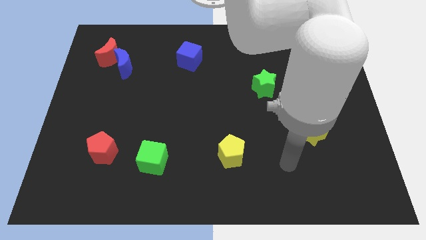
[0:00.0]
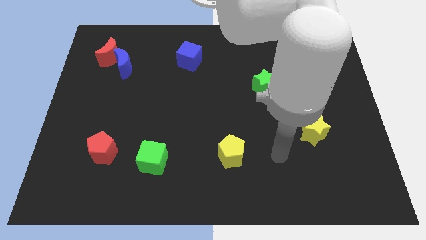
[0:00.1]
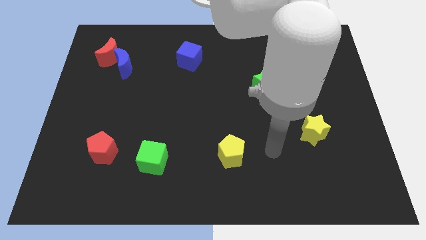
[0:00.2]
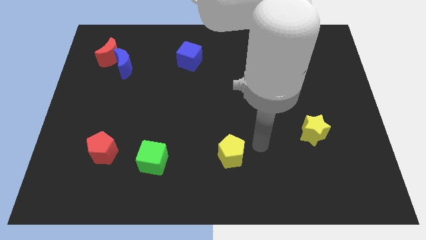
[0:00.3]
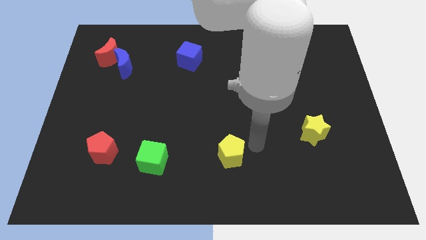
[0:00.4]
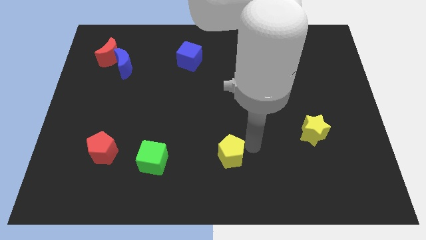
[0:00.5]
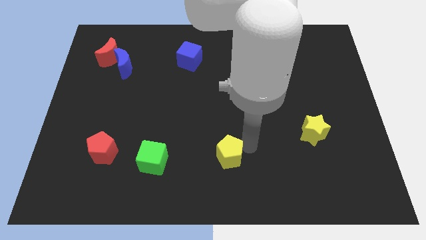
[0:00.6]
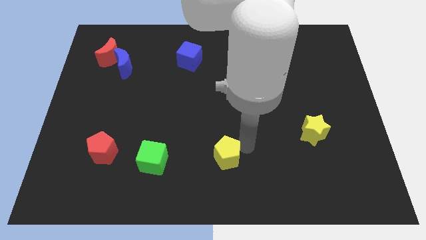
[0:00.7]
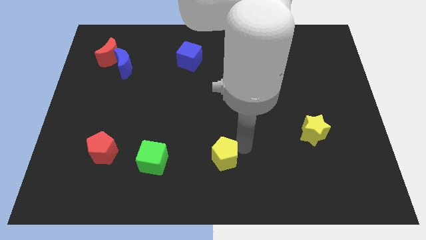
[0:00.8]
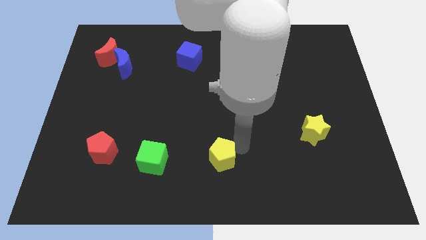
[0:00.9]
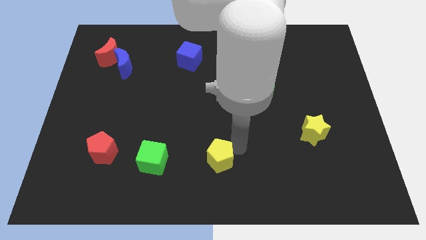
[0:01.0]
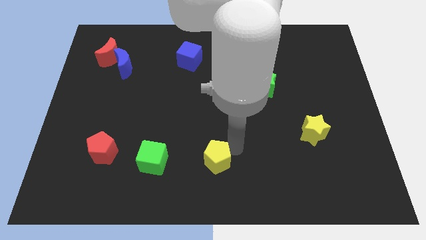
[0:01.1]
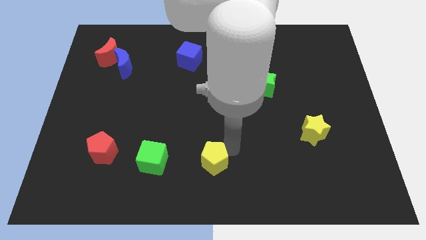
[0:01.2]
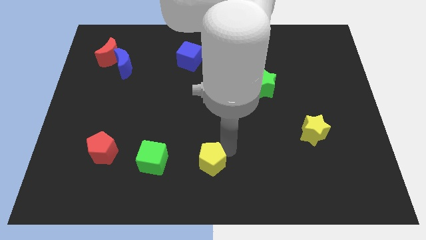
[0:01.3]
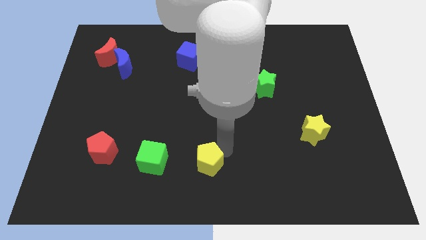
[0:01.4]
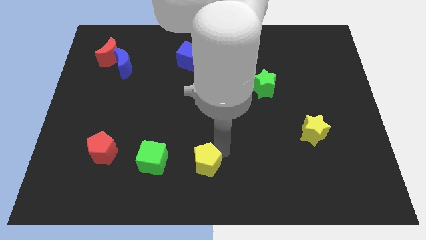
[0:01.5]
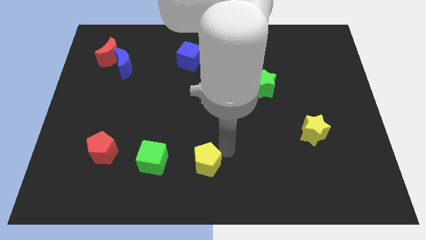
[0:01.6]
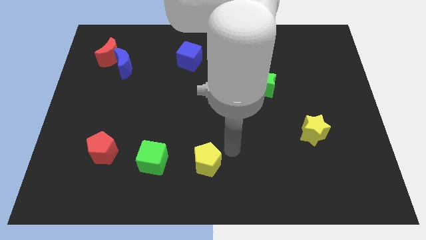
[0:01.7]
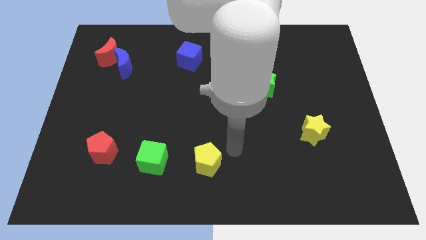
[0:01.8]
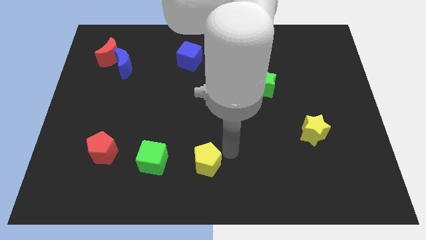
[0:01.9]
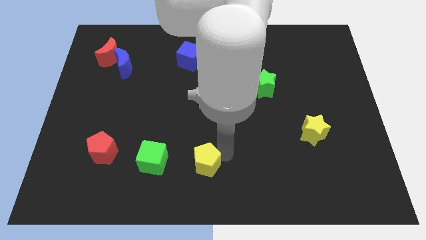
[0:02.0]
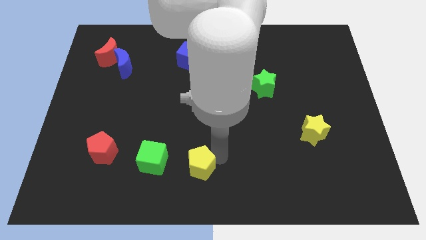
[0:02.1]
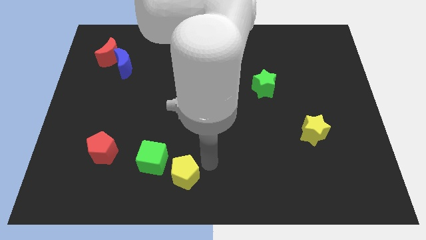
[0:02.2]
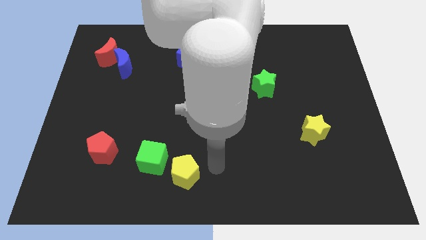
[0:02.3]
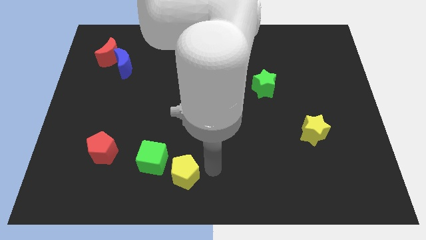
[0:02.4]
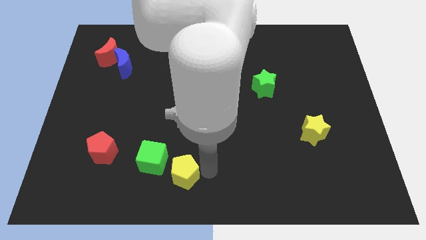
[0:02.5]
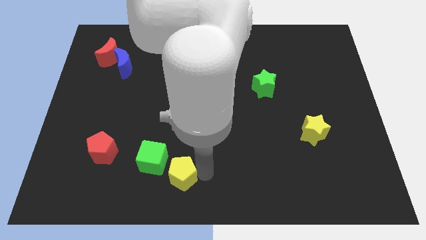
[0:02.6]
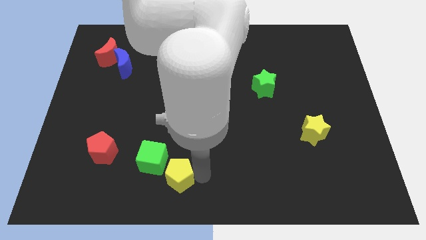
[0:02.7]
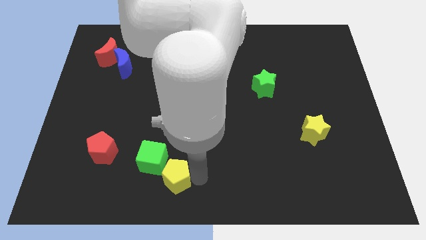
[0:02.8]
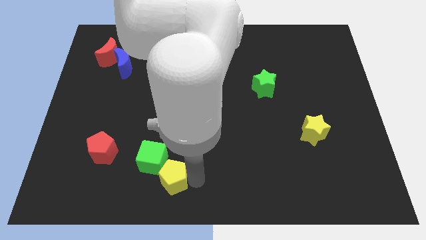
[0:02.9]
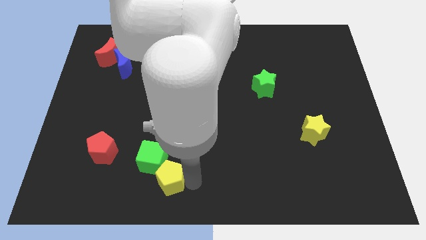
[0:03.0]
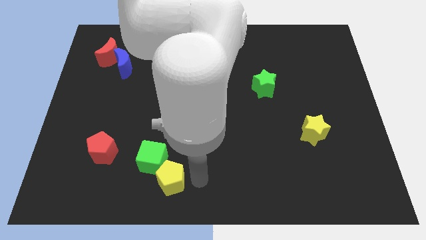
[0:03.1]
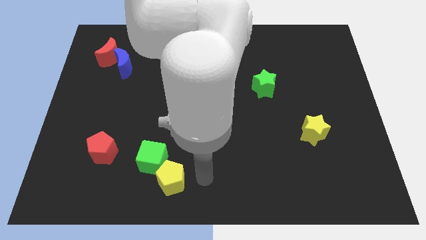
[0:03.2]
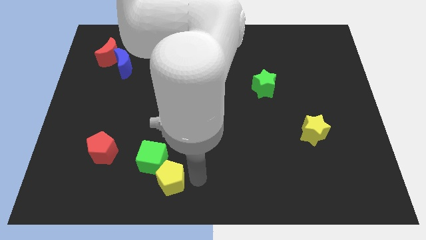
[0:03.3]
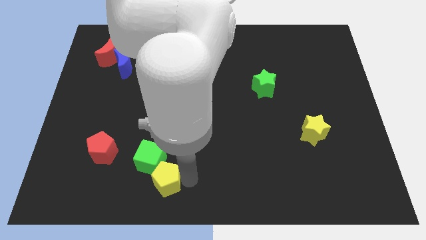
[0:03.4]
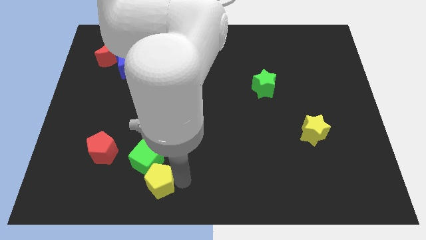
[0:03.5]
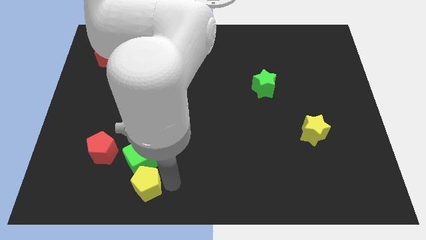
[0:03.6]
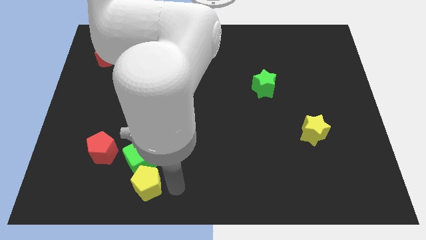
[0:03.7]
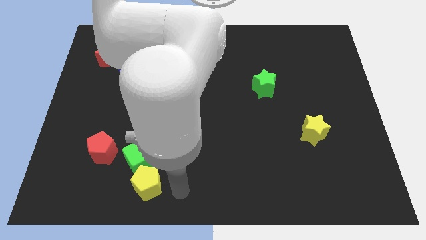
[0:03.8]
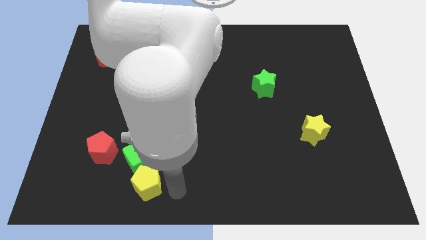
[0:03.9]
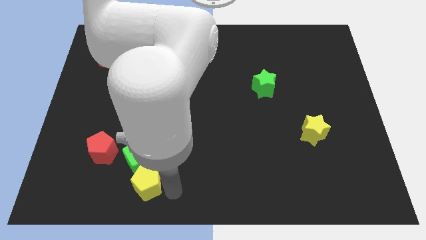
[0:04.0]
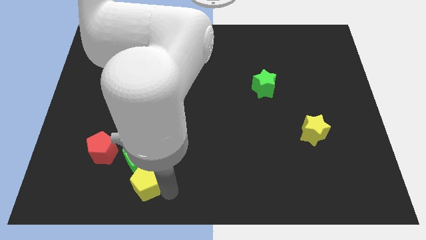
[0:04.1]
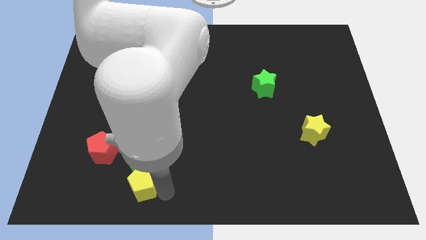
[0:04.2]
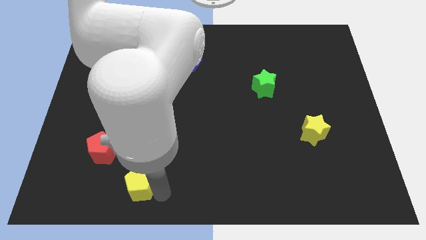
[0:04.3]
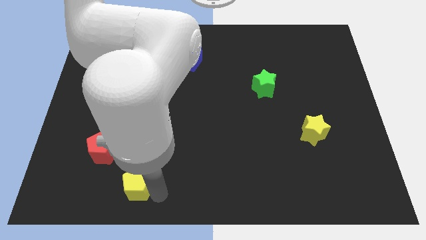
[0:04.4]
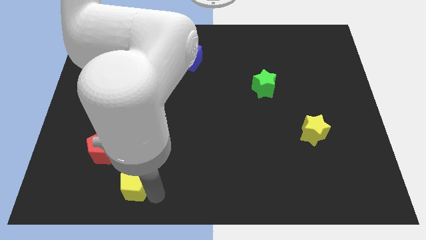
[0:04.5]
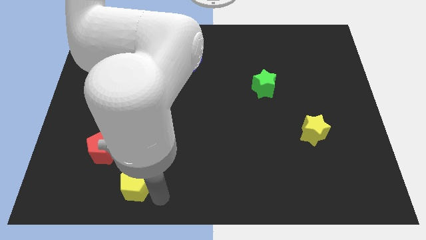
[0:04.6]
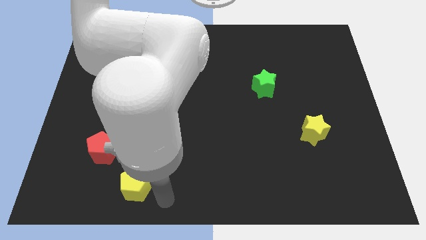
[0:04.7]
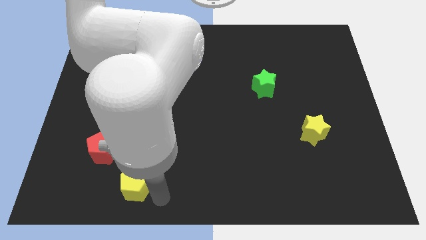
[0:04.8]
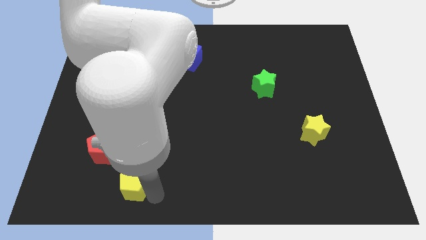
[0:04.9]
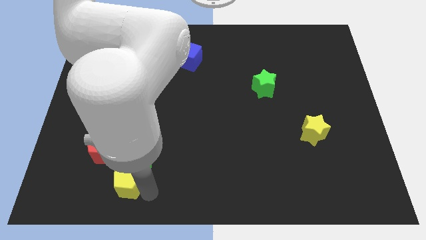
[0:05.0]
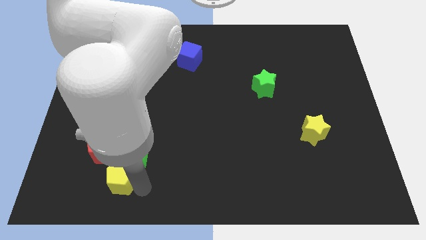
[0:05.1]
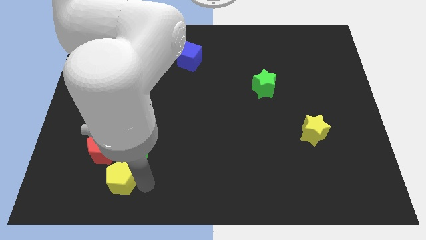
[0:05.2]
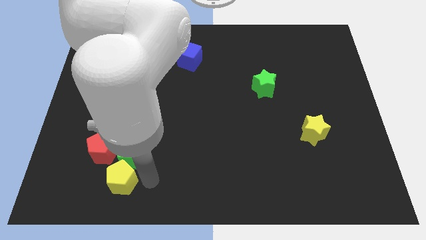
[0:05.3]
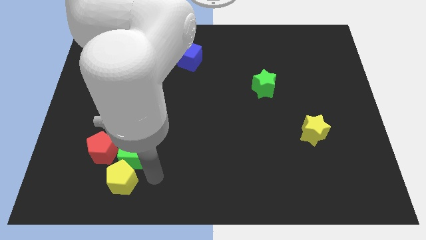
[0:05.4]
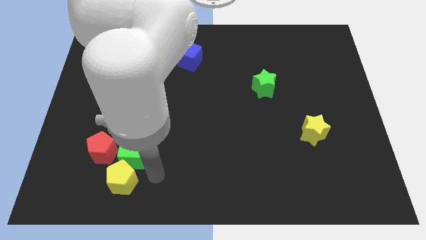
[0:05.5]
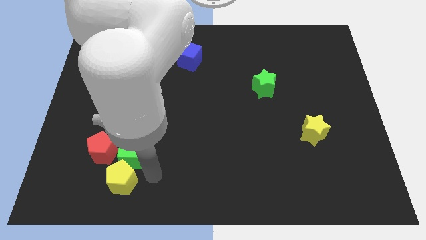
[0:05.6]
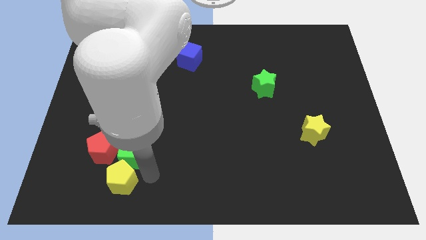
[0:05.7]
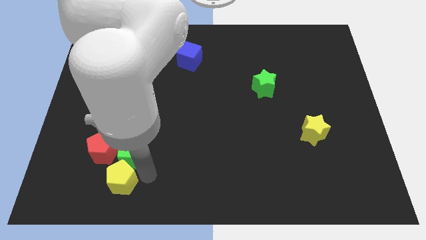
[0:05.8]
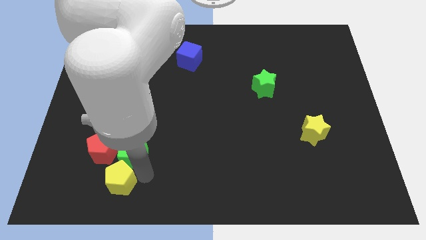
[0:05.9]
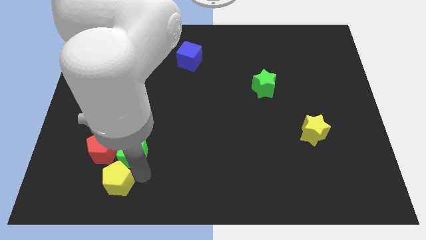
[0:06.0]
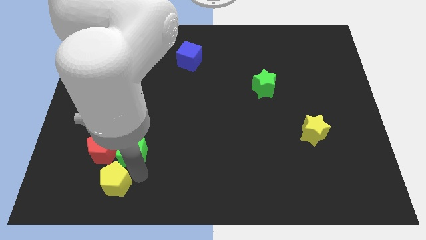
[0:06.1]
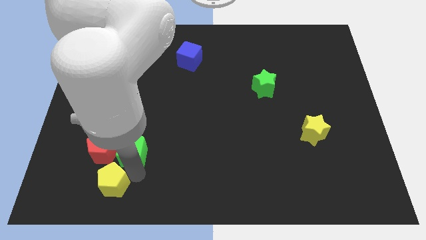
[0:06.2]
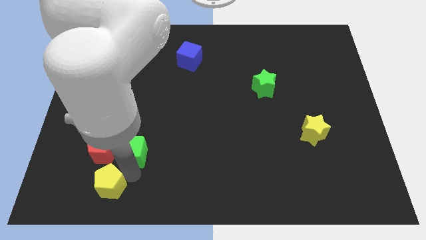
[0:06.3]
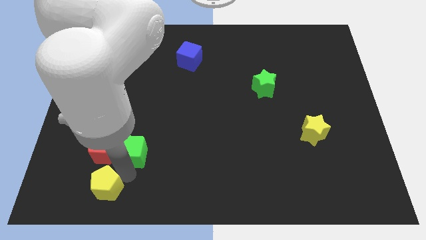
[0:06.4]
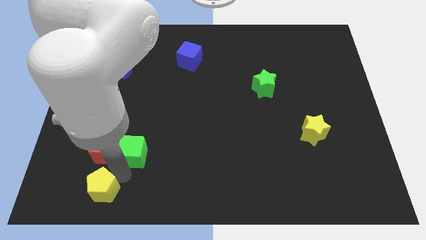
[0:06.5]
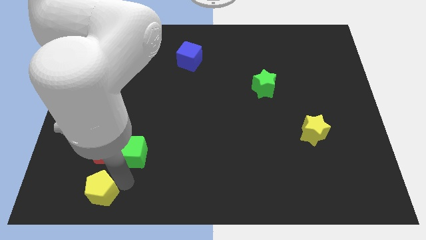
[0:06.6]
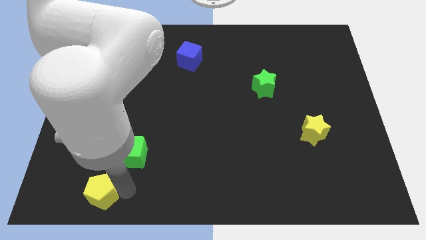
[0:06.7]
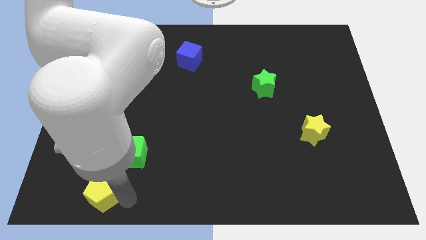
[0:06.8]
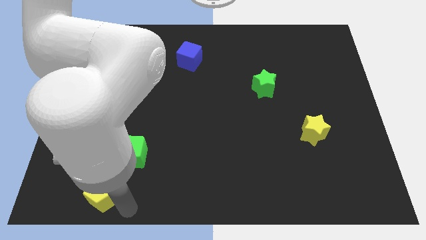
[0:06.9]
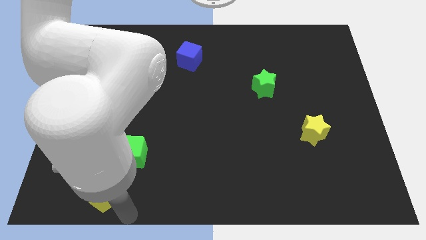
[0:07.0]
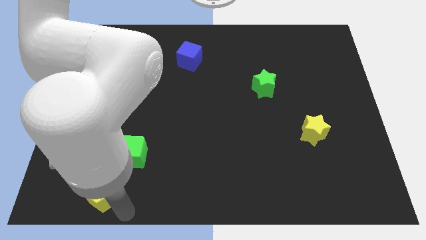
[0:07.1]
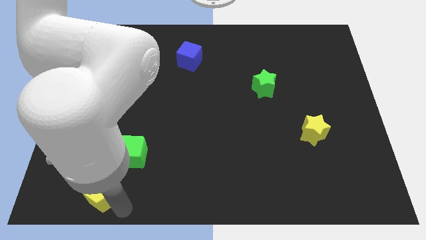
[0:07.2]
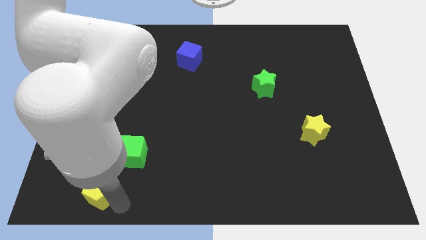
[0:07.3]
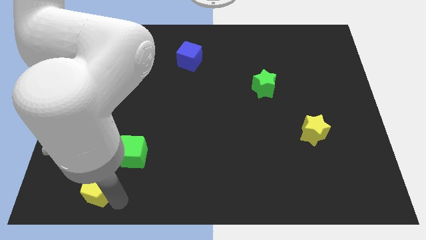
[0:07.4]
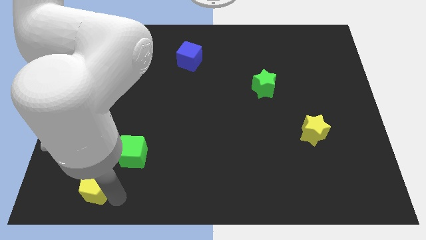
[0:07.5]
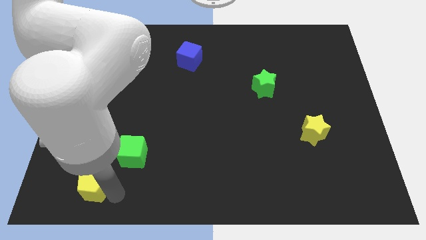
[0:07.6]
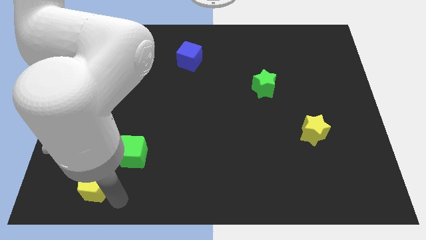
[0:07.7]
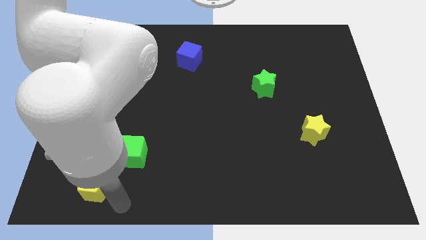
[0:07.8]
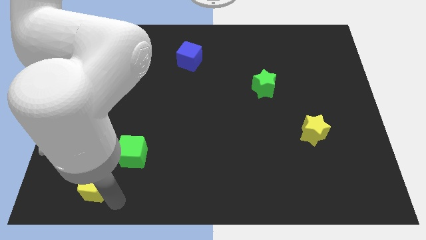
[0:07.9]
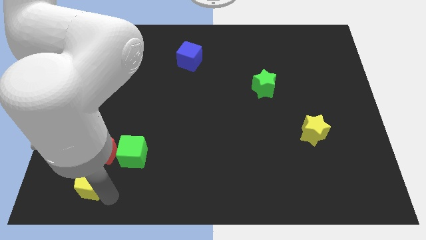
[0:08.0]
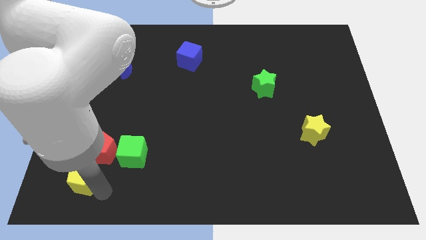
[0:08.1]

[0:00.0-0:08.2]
push the yellow pentagon to the bottom left of the red pentagon
